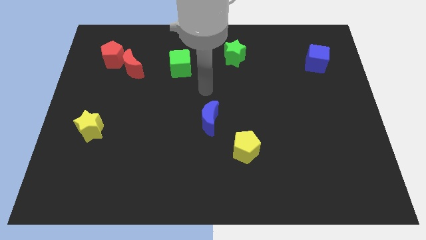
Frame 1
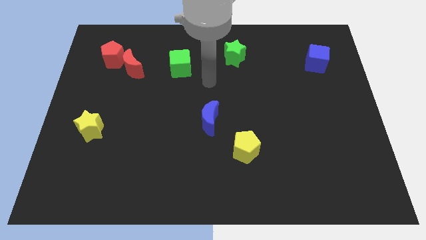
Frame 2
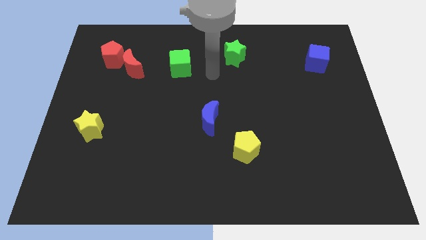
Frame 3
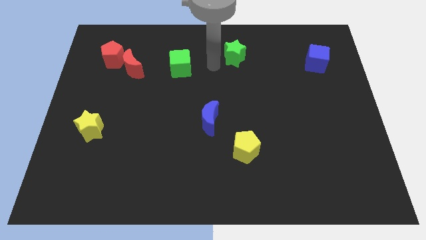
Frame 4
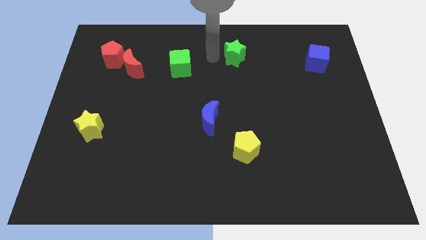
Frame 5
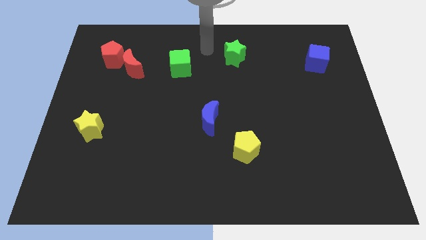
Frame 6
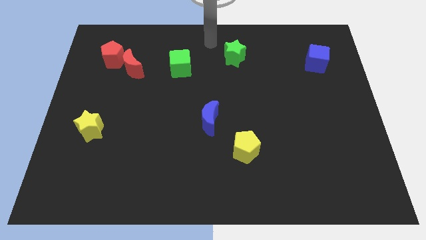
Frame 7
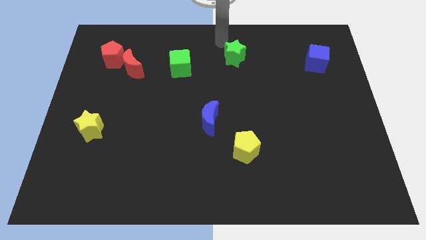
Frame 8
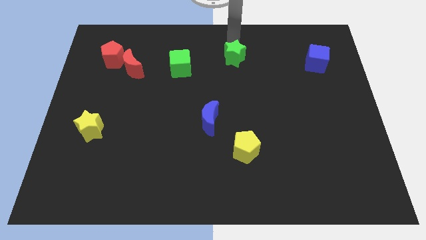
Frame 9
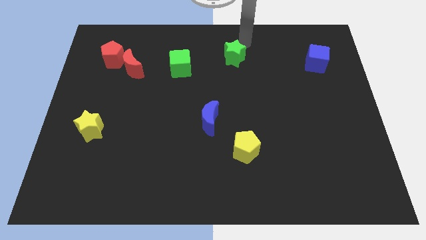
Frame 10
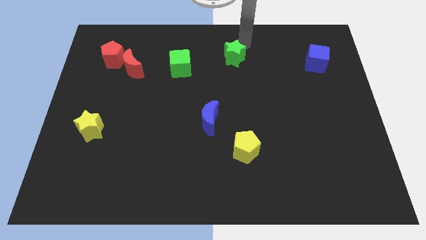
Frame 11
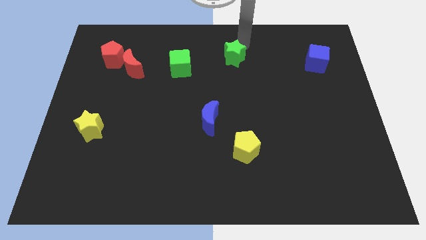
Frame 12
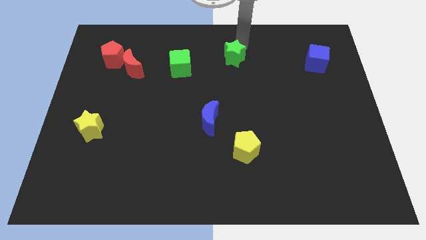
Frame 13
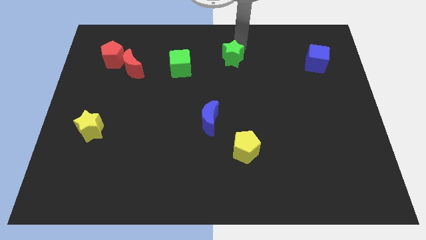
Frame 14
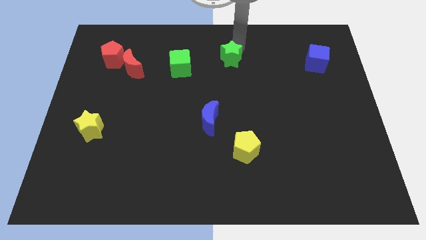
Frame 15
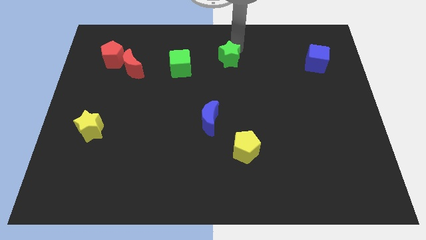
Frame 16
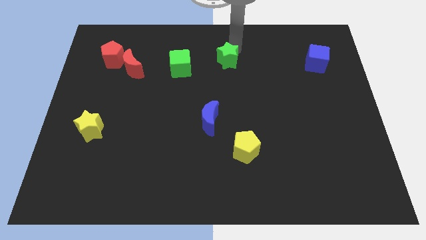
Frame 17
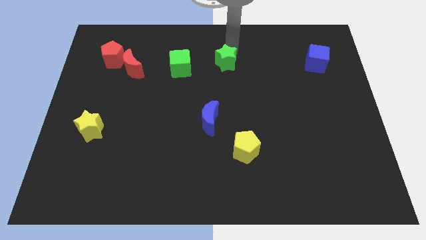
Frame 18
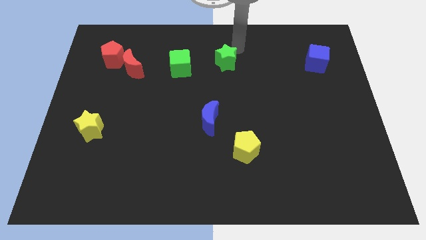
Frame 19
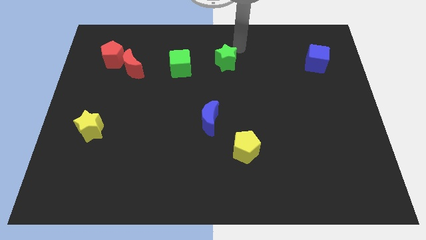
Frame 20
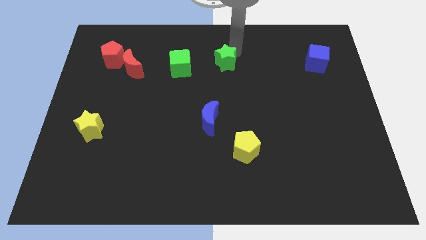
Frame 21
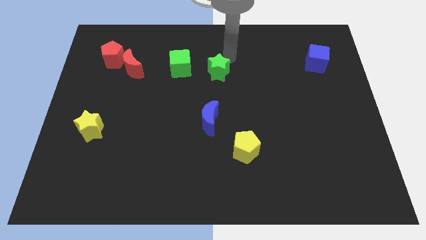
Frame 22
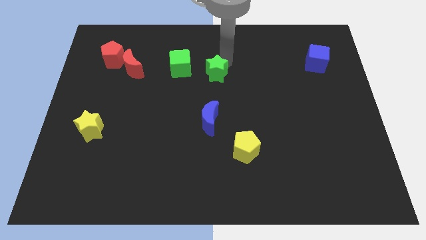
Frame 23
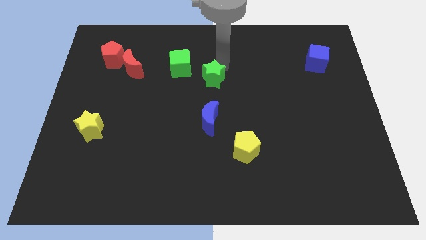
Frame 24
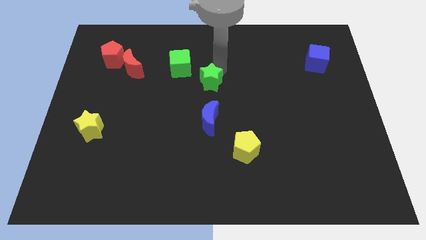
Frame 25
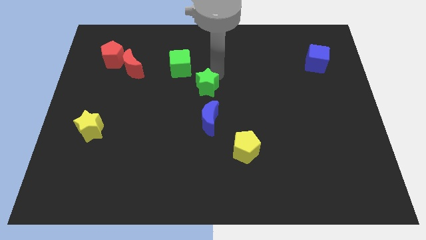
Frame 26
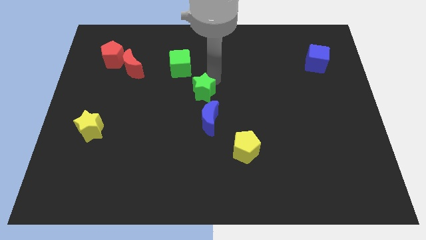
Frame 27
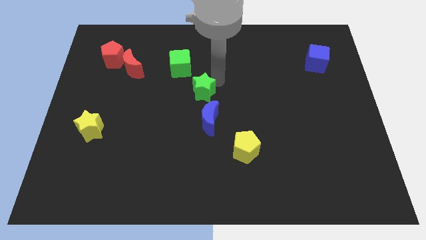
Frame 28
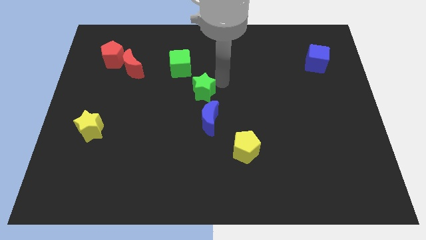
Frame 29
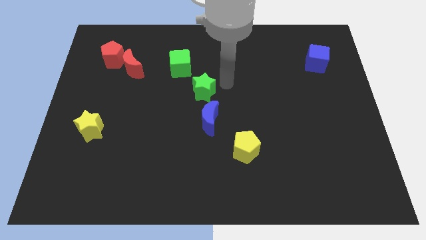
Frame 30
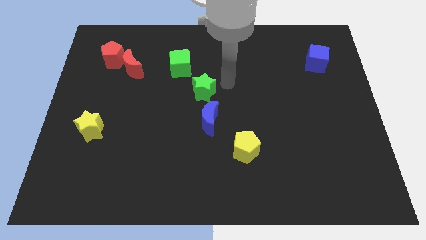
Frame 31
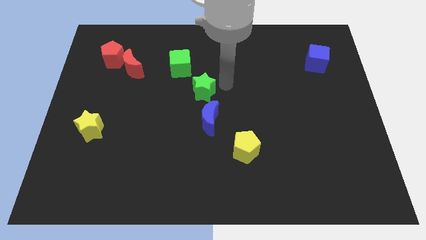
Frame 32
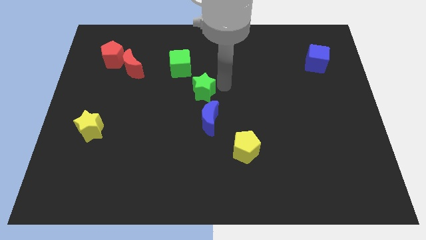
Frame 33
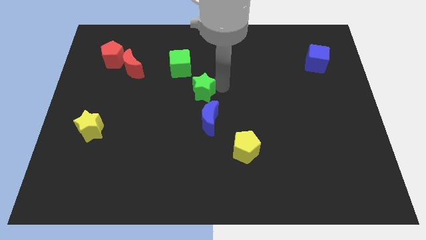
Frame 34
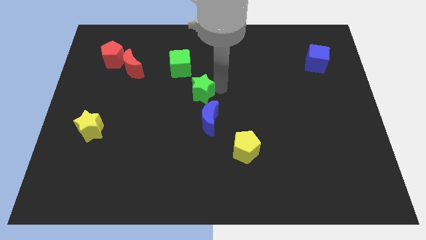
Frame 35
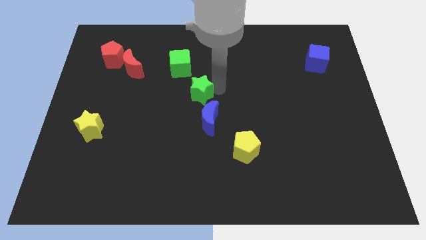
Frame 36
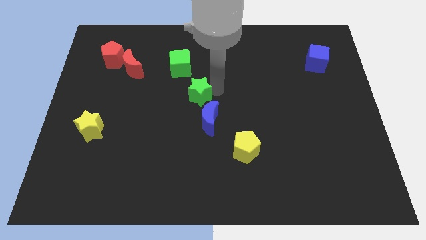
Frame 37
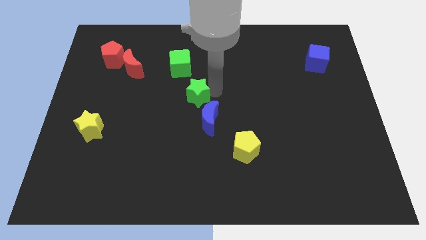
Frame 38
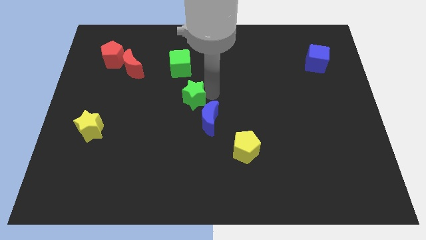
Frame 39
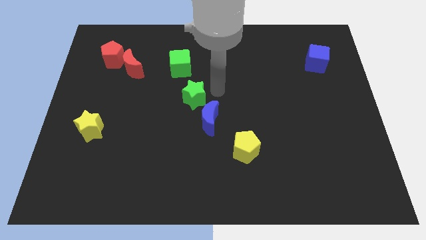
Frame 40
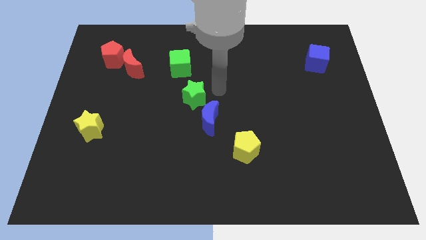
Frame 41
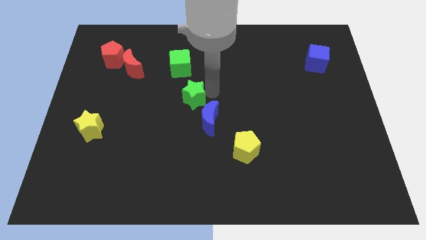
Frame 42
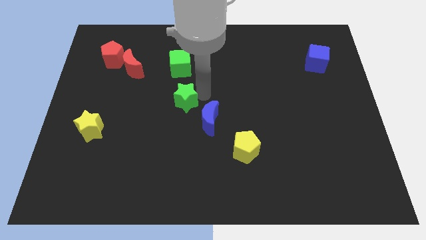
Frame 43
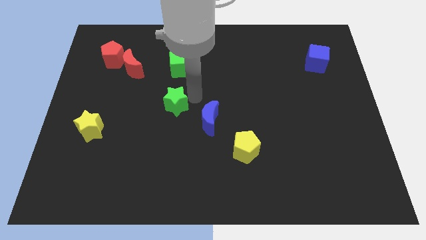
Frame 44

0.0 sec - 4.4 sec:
push the green star diagonally downwards and to the left

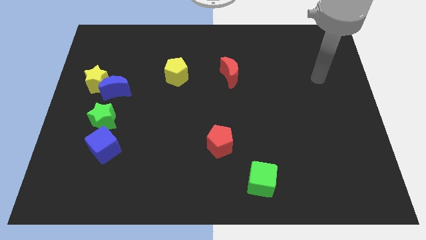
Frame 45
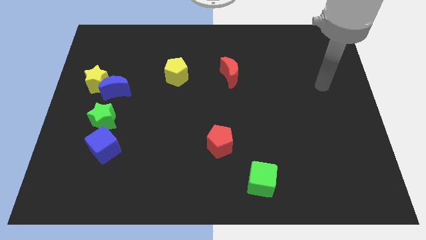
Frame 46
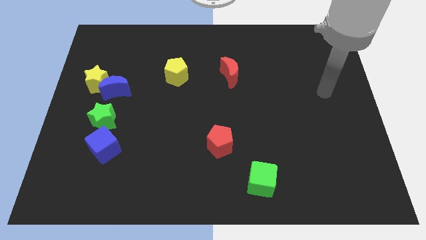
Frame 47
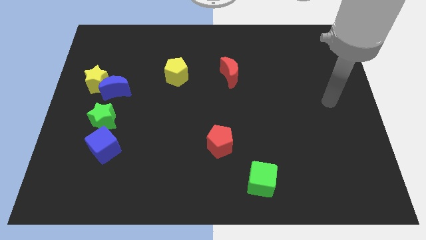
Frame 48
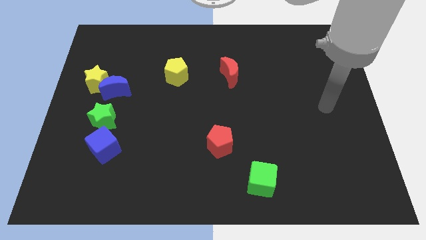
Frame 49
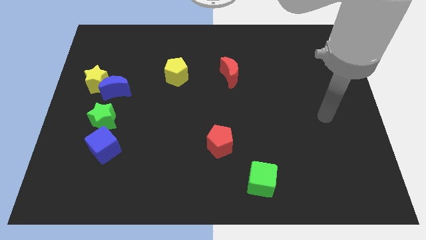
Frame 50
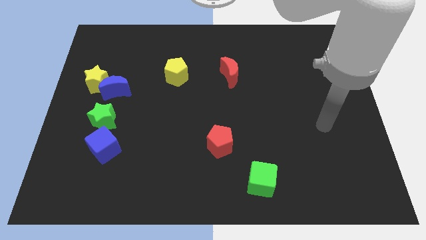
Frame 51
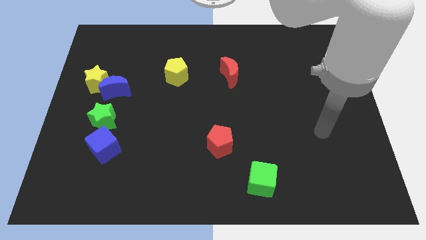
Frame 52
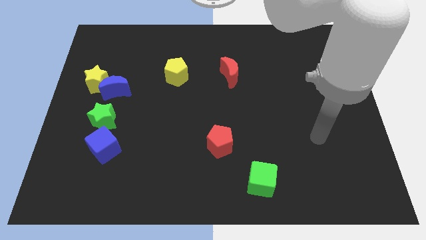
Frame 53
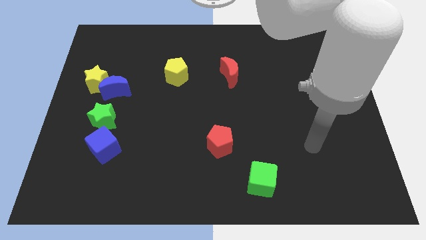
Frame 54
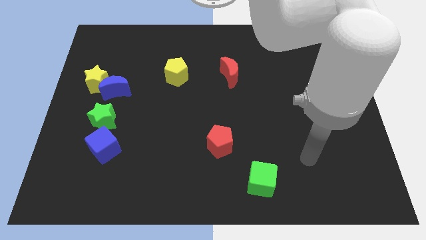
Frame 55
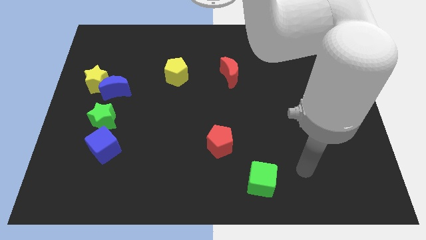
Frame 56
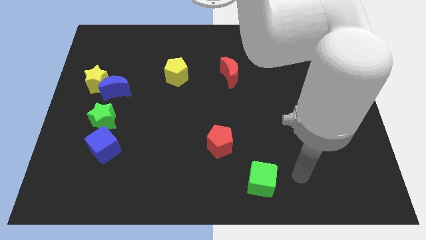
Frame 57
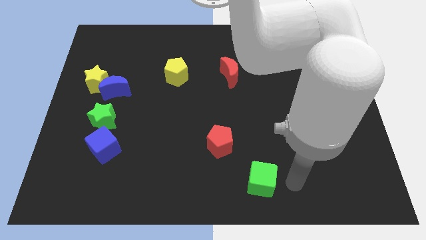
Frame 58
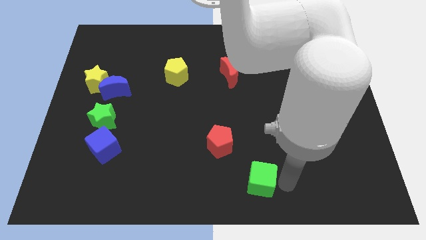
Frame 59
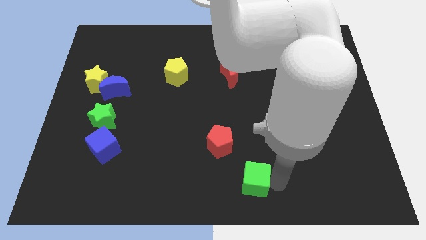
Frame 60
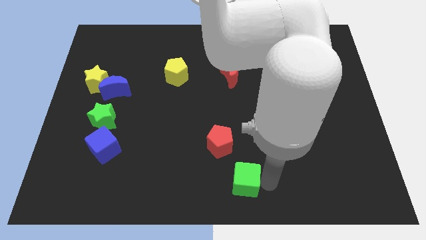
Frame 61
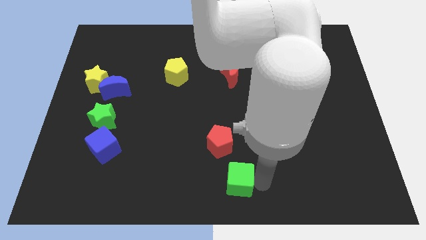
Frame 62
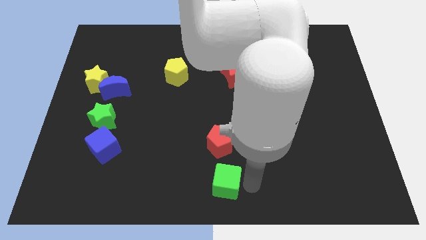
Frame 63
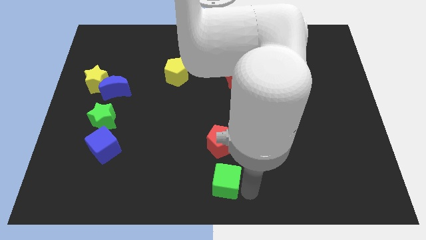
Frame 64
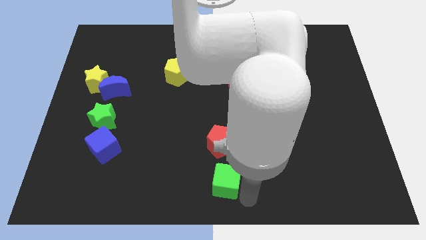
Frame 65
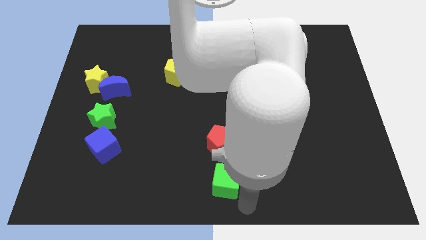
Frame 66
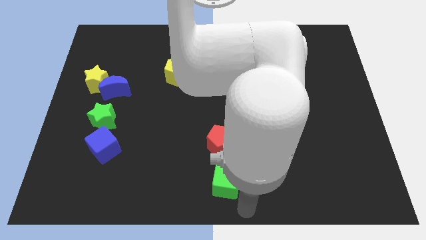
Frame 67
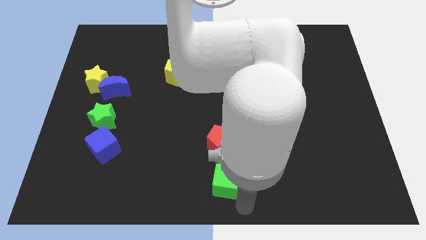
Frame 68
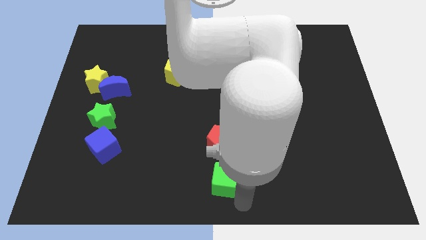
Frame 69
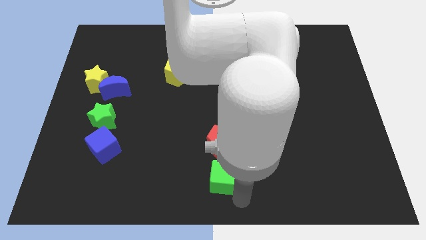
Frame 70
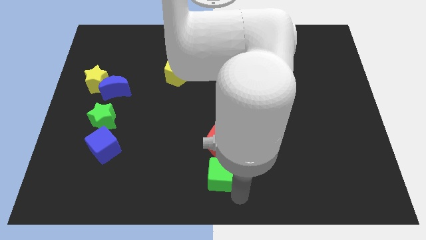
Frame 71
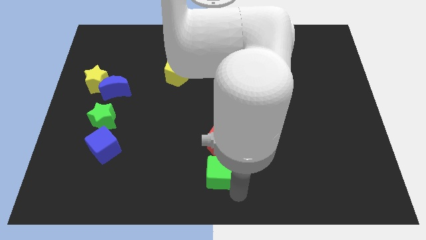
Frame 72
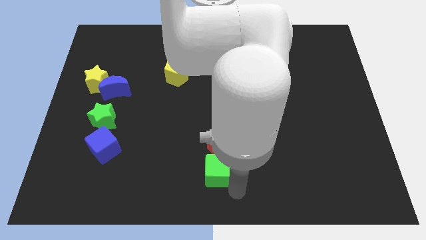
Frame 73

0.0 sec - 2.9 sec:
slide the green cube up and then to the left a little bit

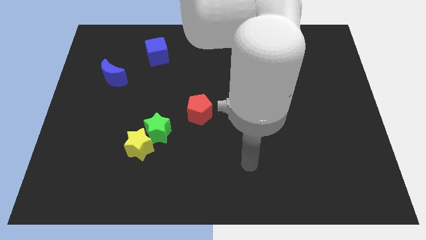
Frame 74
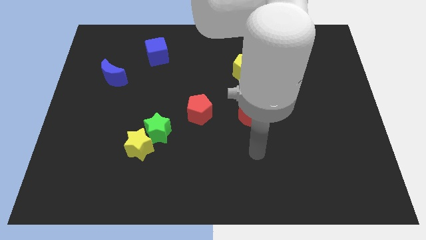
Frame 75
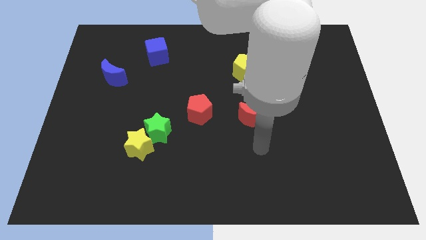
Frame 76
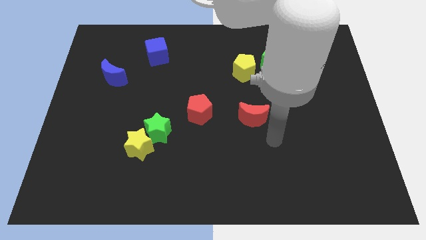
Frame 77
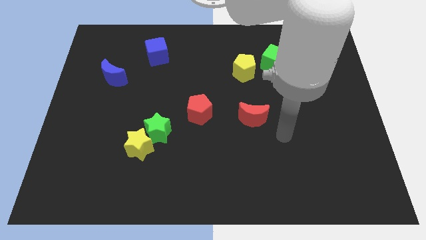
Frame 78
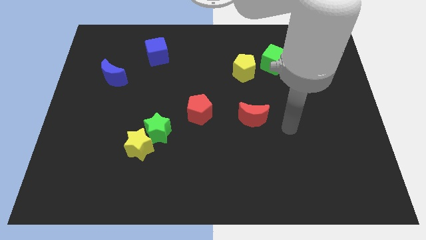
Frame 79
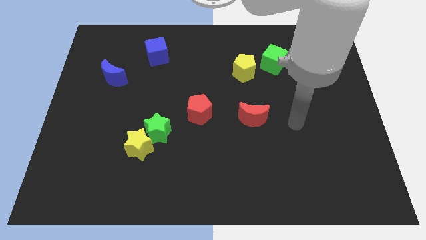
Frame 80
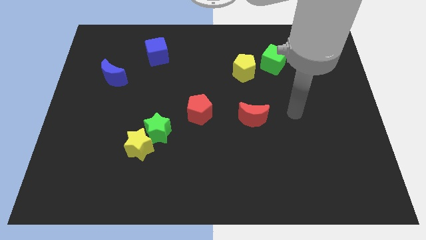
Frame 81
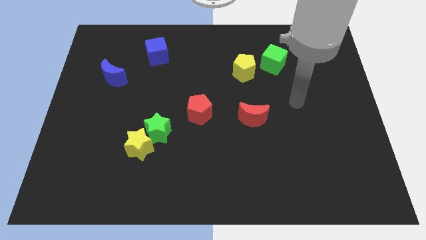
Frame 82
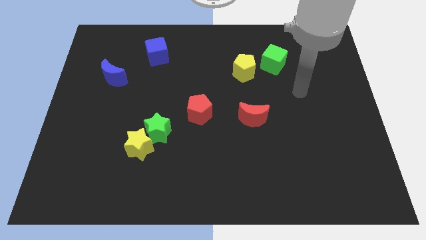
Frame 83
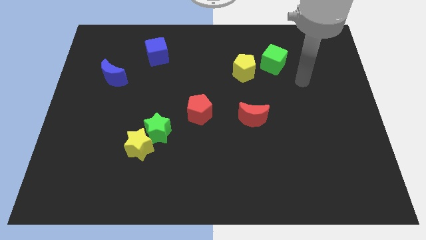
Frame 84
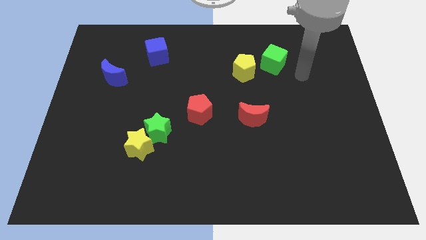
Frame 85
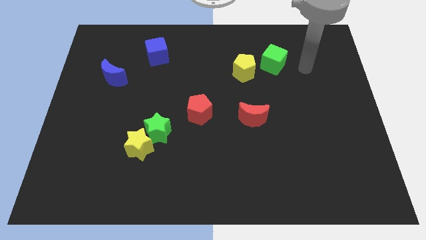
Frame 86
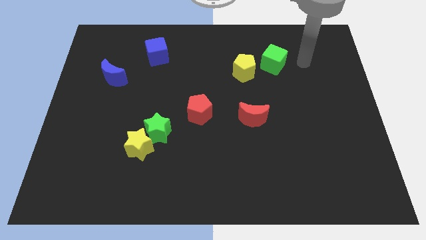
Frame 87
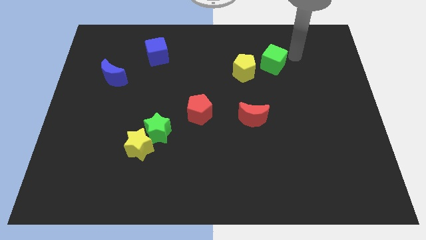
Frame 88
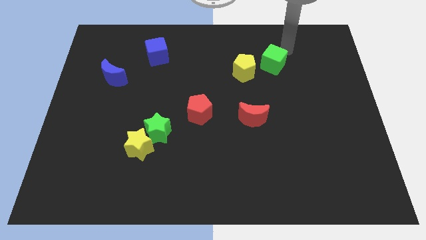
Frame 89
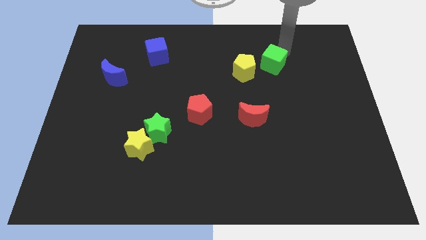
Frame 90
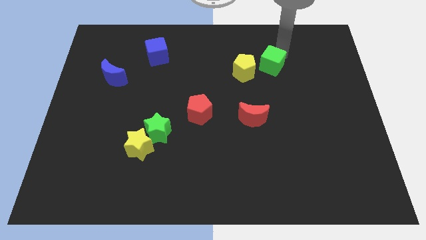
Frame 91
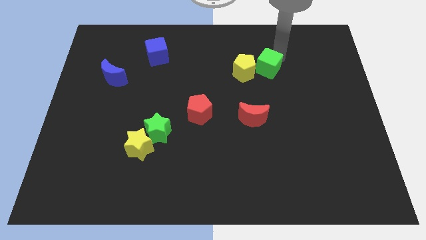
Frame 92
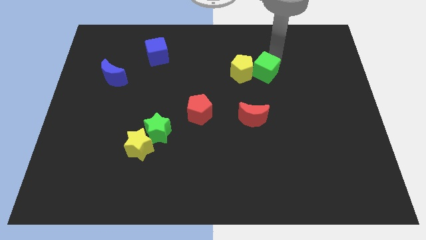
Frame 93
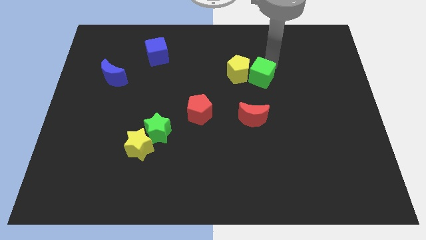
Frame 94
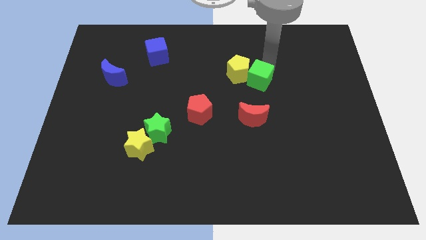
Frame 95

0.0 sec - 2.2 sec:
slightly move the green cube diagonally down and to the left
